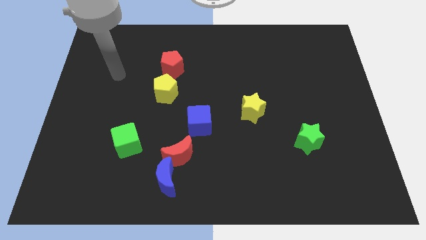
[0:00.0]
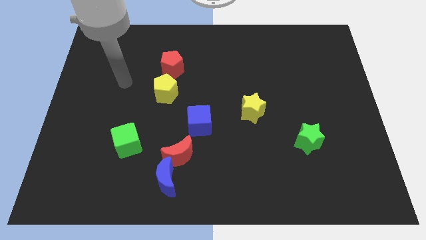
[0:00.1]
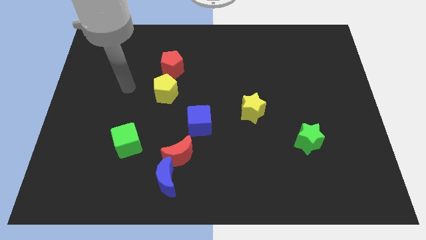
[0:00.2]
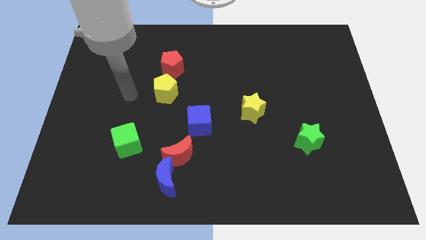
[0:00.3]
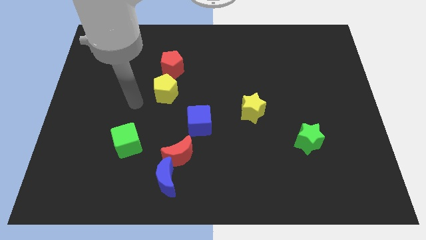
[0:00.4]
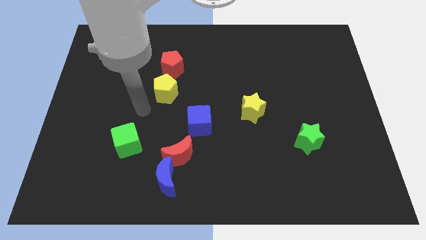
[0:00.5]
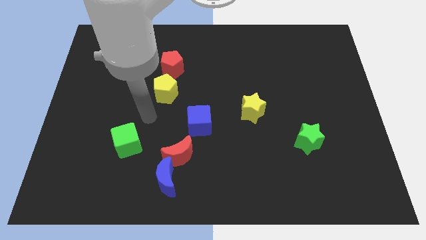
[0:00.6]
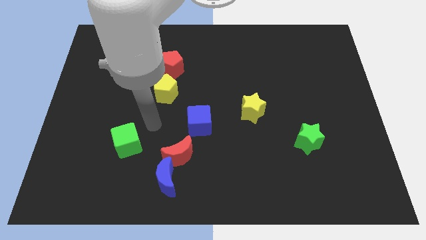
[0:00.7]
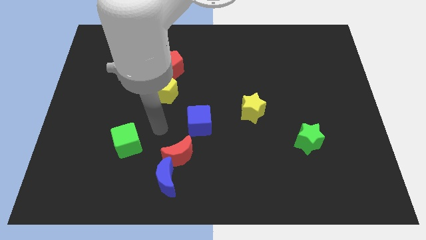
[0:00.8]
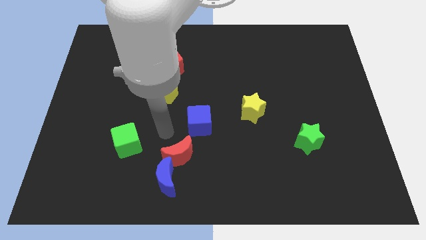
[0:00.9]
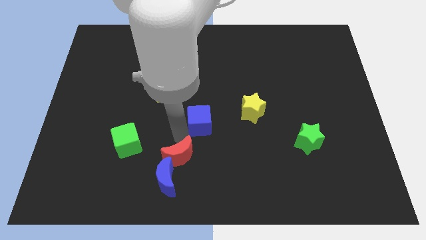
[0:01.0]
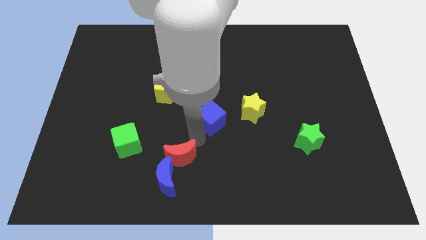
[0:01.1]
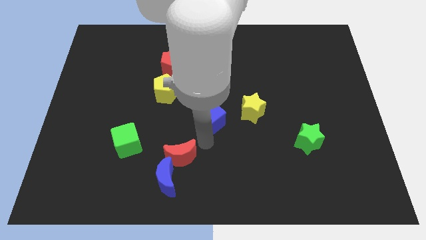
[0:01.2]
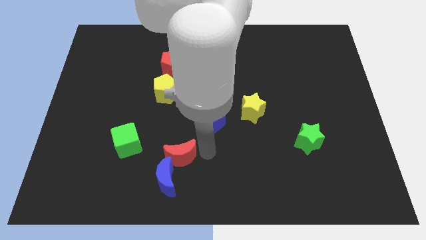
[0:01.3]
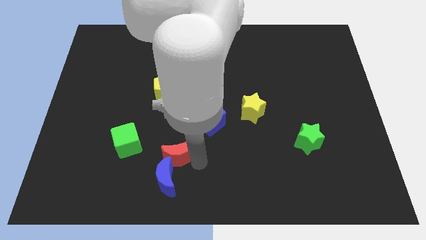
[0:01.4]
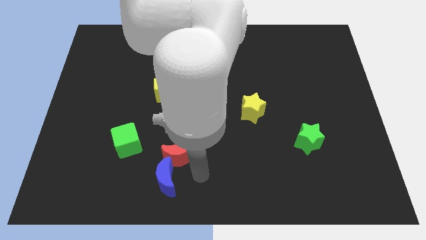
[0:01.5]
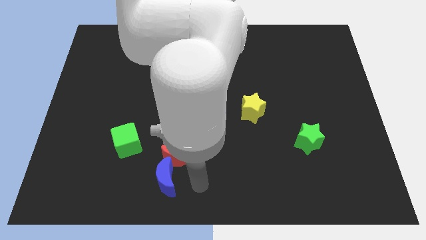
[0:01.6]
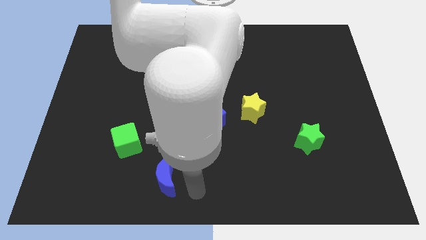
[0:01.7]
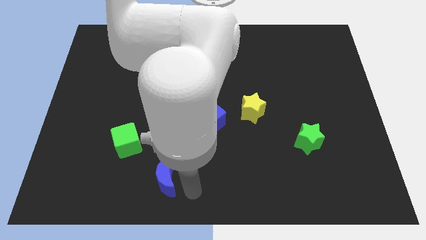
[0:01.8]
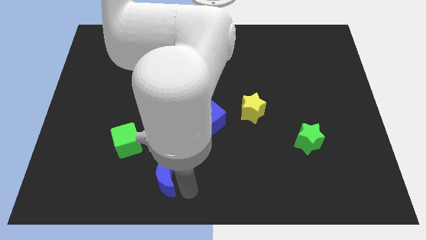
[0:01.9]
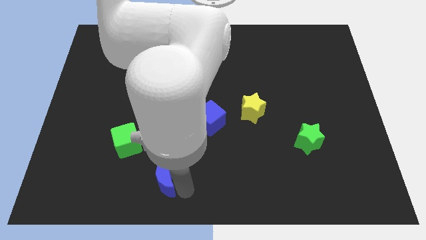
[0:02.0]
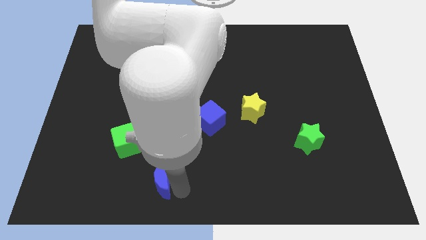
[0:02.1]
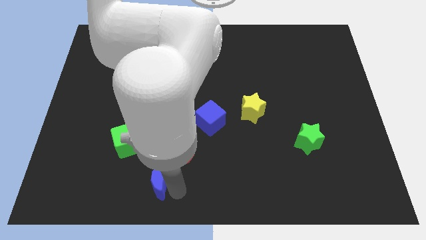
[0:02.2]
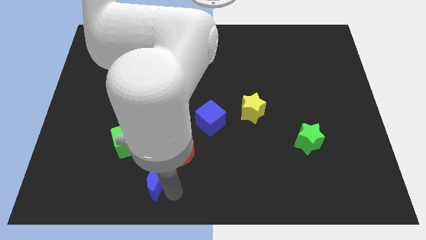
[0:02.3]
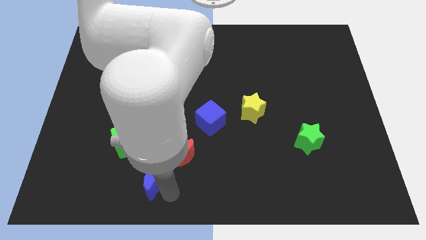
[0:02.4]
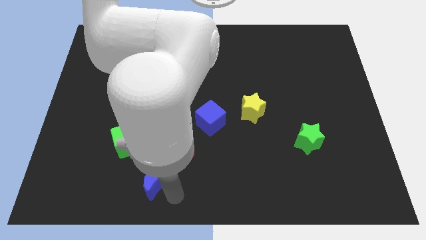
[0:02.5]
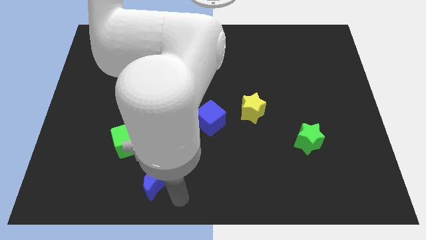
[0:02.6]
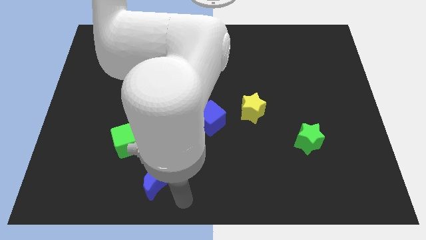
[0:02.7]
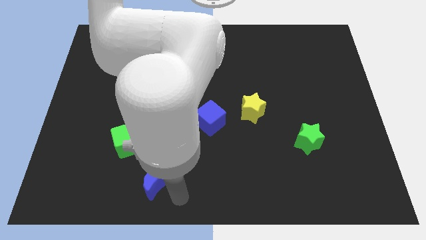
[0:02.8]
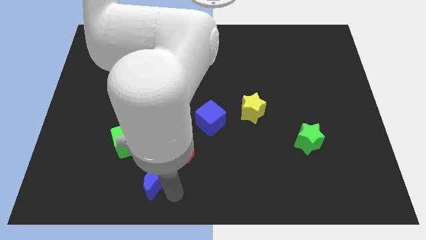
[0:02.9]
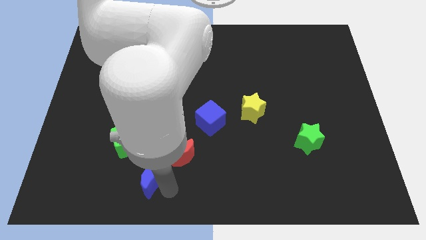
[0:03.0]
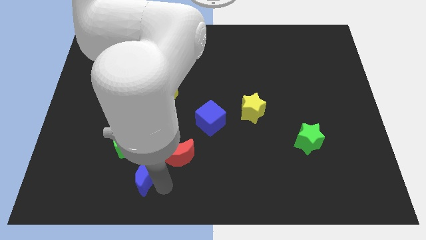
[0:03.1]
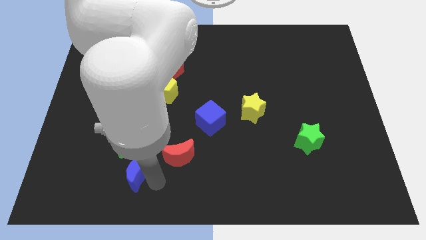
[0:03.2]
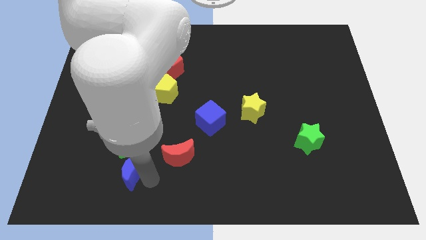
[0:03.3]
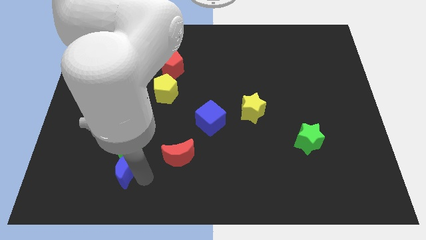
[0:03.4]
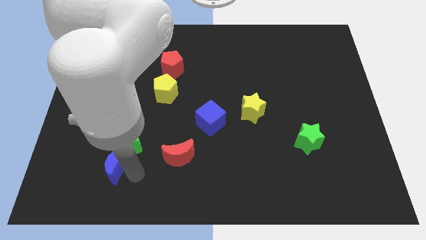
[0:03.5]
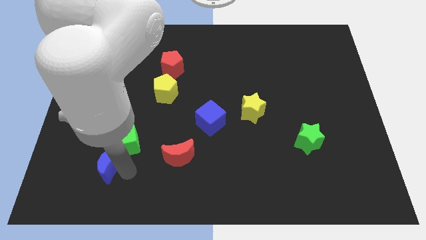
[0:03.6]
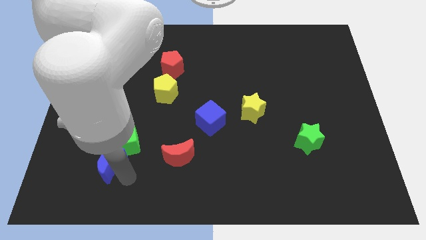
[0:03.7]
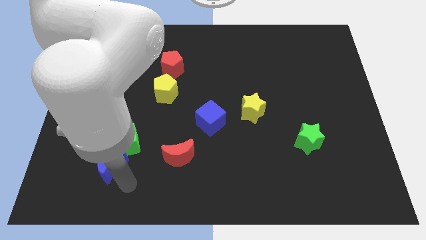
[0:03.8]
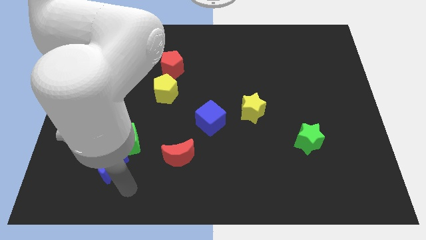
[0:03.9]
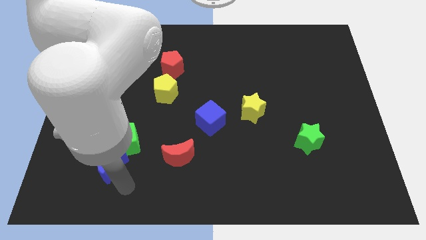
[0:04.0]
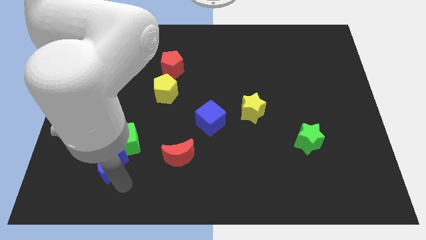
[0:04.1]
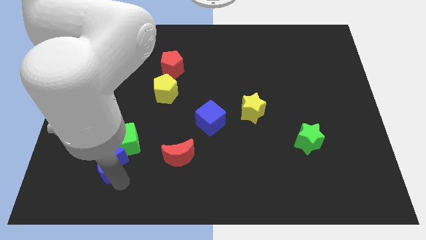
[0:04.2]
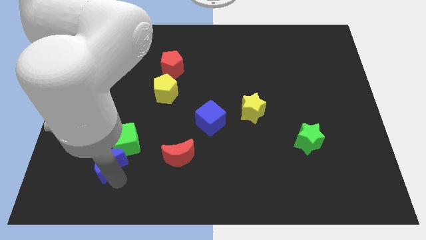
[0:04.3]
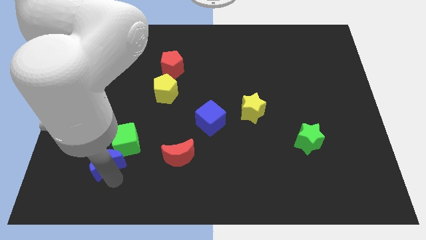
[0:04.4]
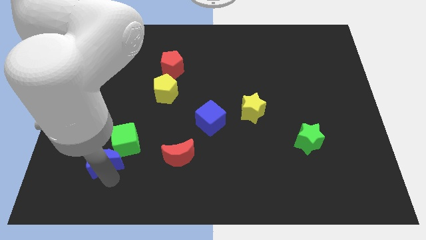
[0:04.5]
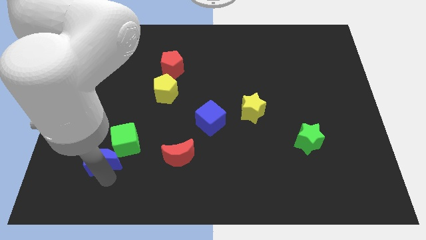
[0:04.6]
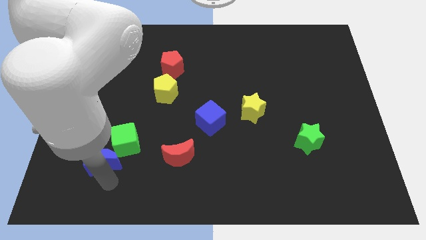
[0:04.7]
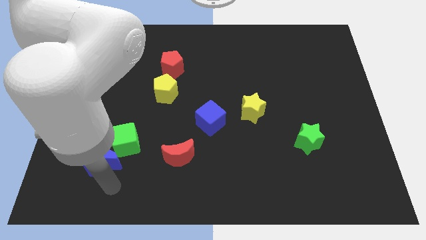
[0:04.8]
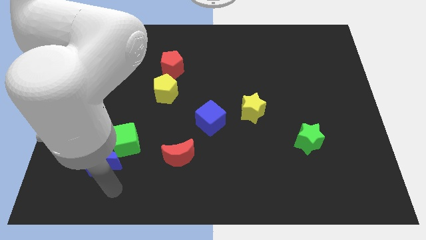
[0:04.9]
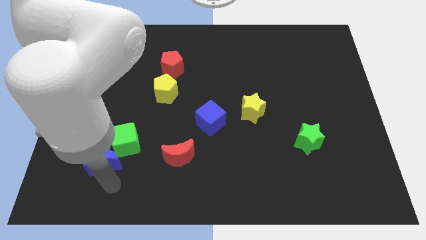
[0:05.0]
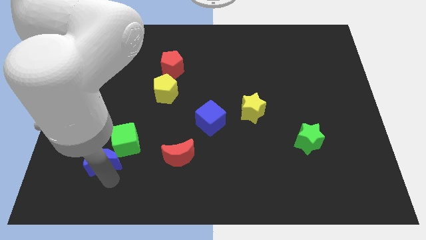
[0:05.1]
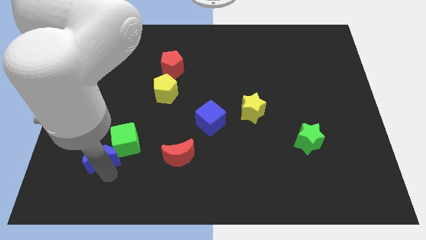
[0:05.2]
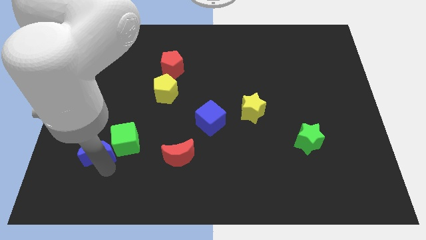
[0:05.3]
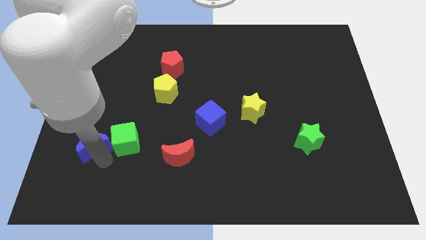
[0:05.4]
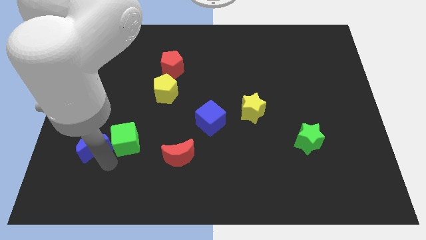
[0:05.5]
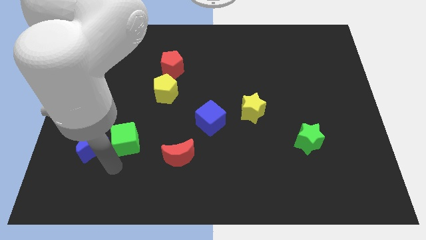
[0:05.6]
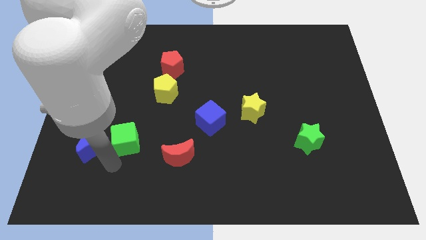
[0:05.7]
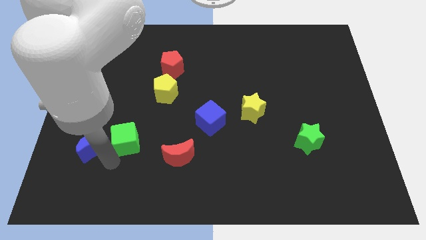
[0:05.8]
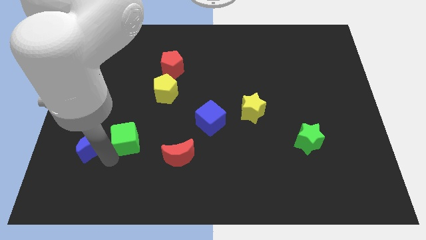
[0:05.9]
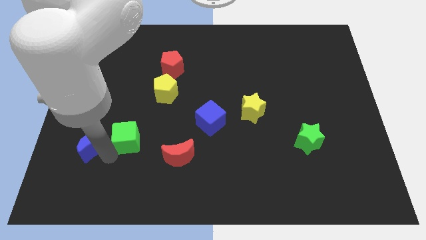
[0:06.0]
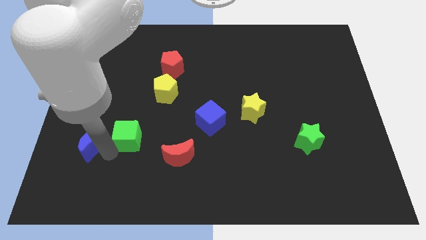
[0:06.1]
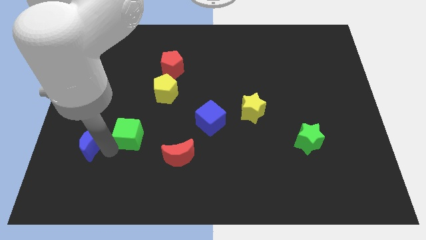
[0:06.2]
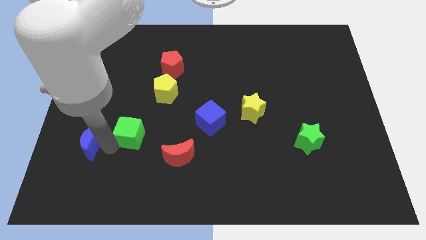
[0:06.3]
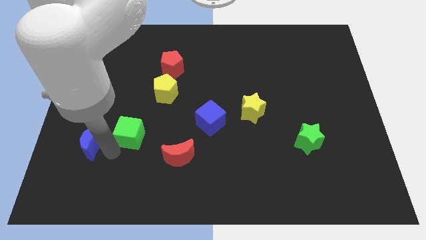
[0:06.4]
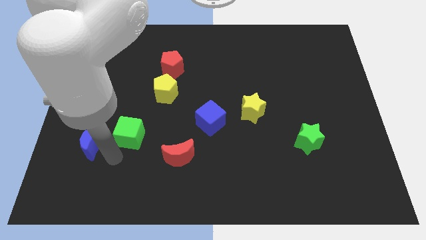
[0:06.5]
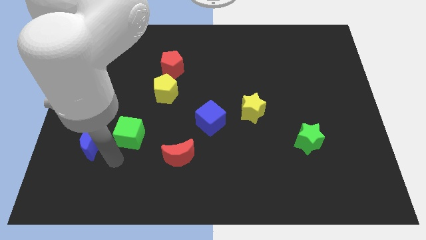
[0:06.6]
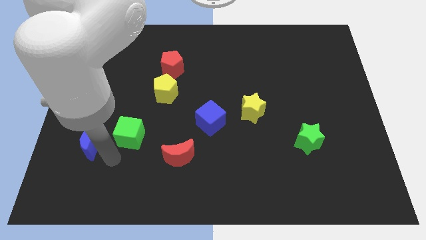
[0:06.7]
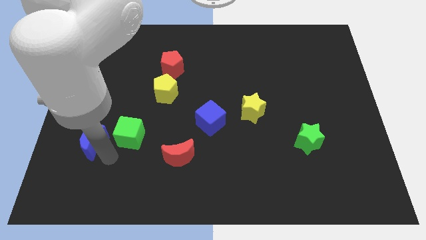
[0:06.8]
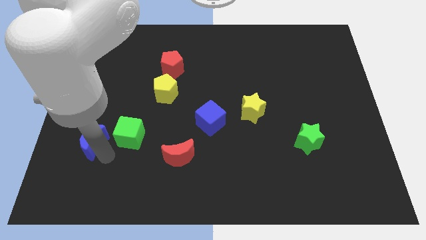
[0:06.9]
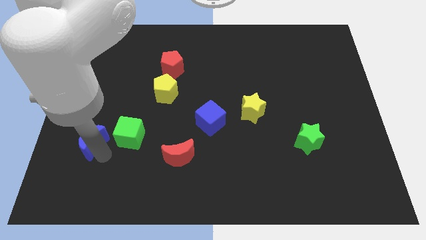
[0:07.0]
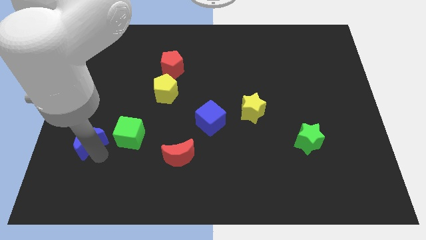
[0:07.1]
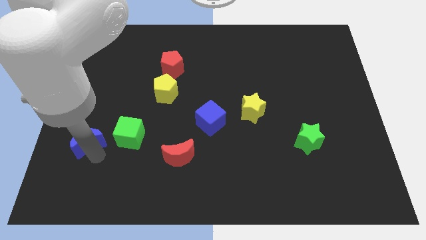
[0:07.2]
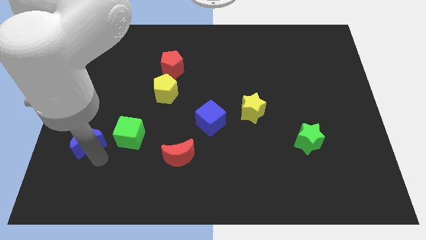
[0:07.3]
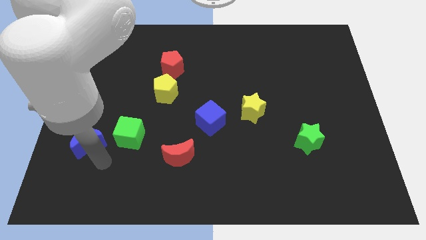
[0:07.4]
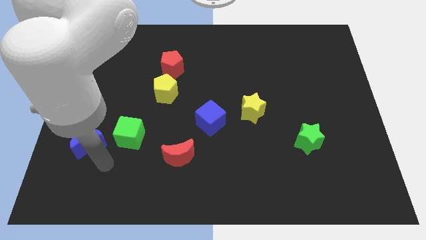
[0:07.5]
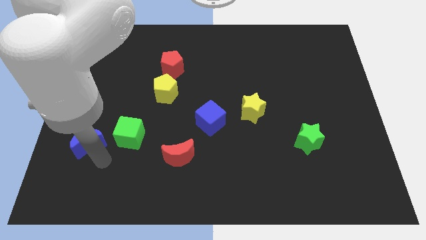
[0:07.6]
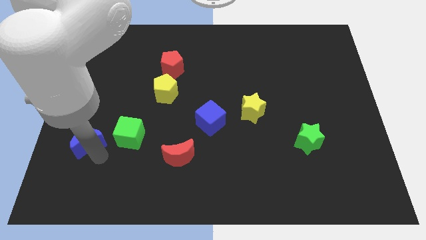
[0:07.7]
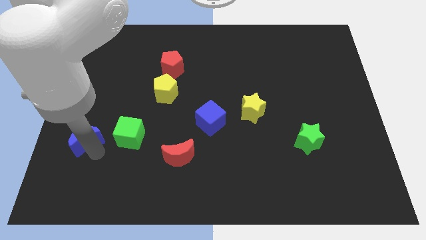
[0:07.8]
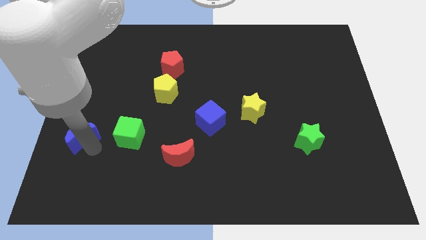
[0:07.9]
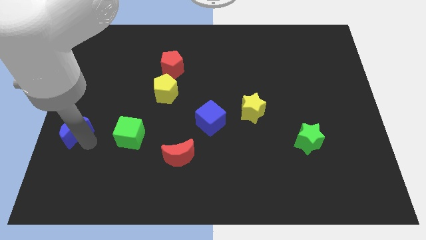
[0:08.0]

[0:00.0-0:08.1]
slide the blue moon to the left side
